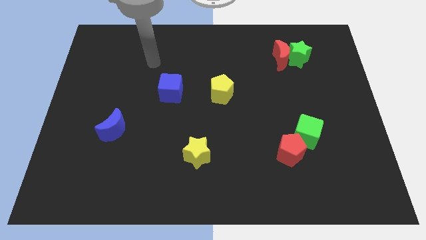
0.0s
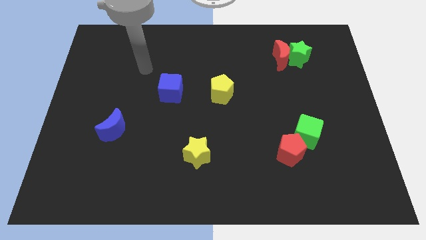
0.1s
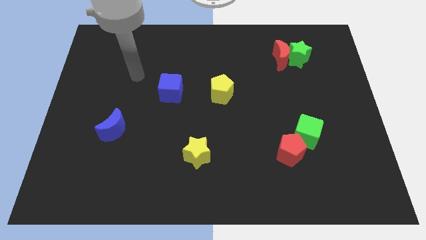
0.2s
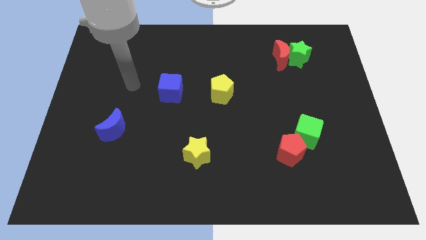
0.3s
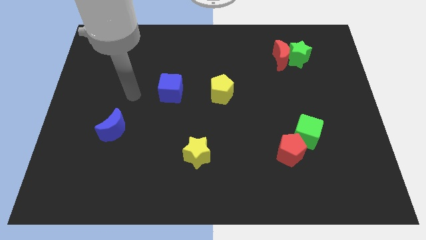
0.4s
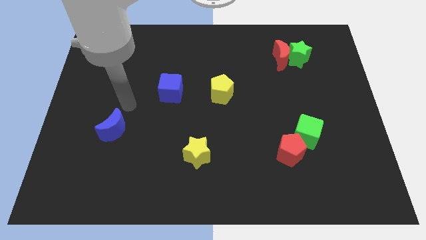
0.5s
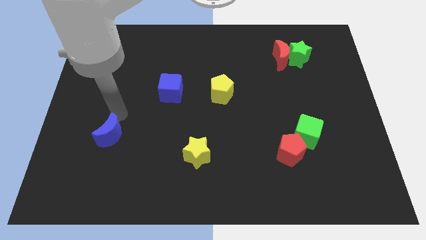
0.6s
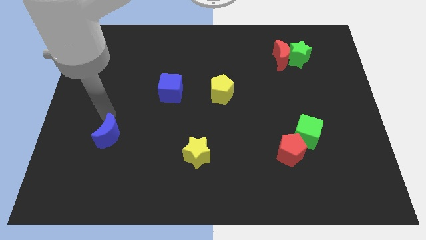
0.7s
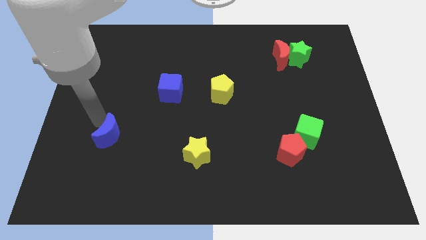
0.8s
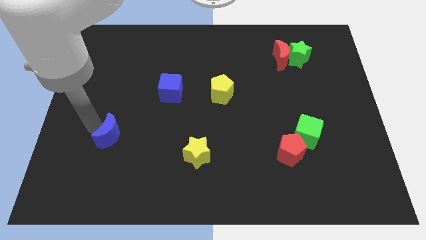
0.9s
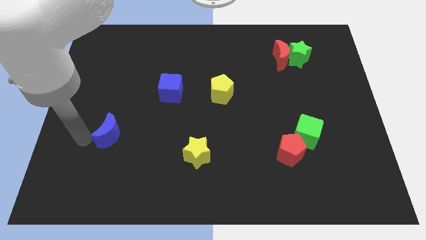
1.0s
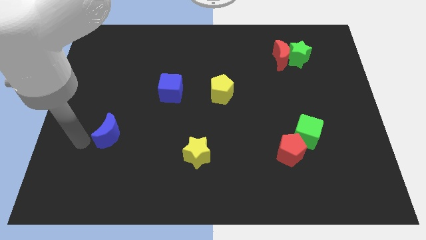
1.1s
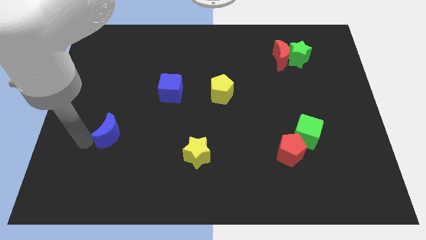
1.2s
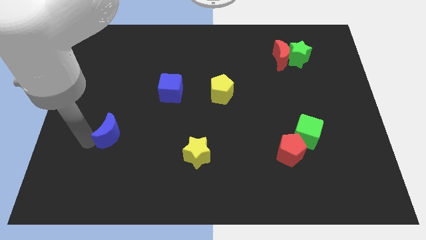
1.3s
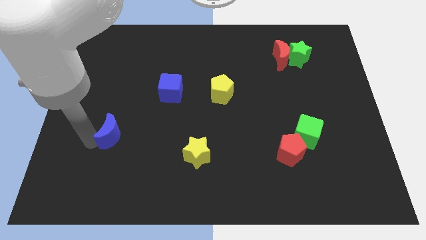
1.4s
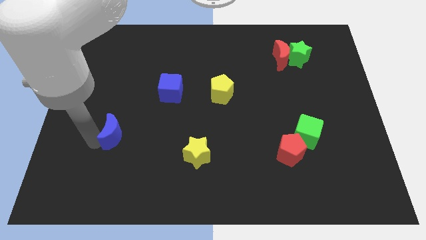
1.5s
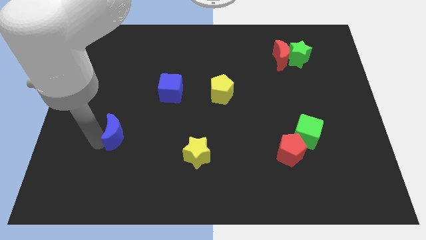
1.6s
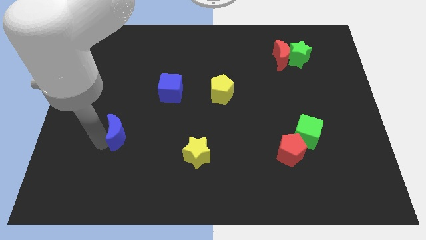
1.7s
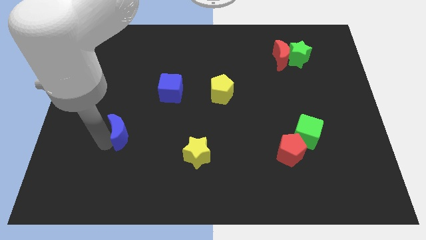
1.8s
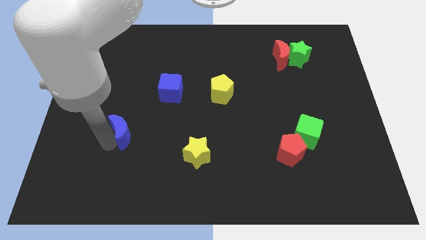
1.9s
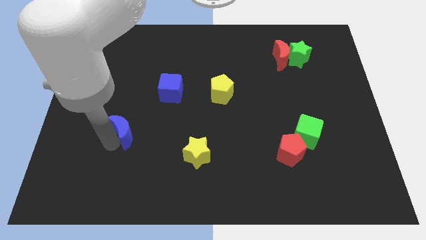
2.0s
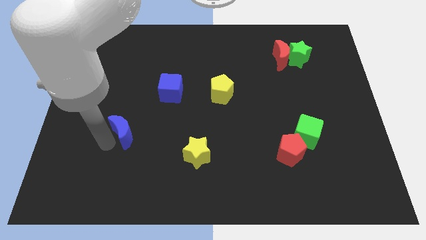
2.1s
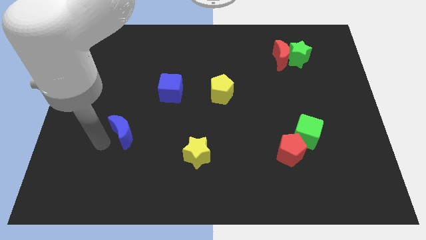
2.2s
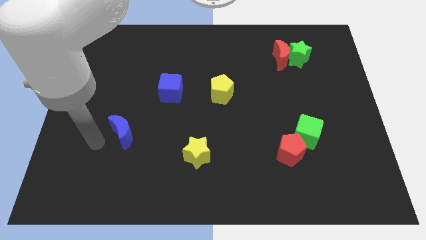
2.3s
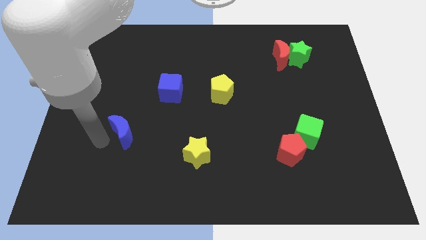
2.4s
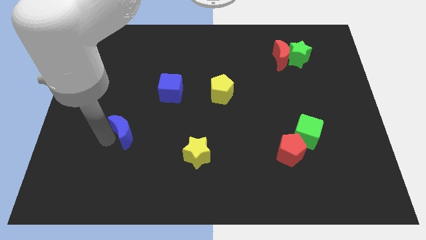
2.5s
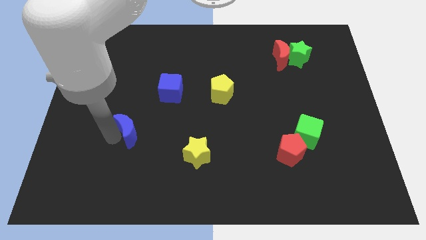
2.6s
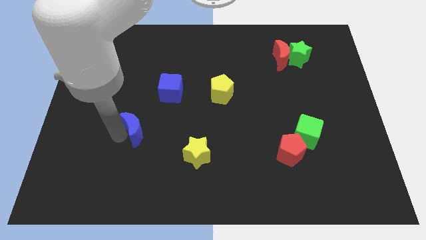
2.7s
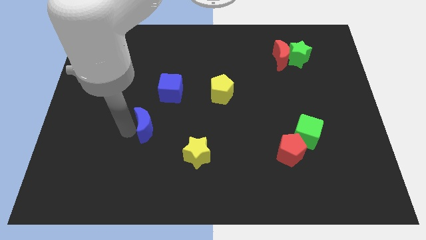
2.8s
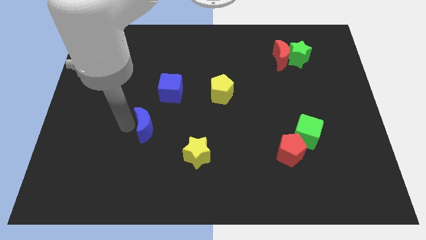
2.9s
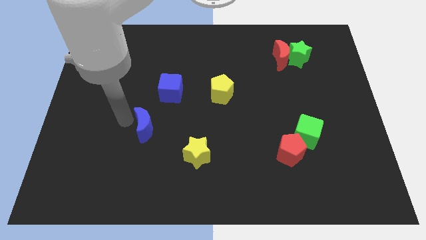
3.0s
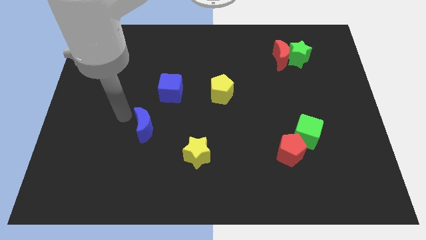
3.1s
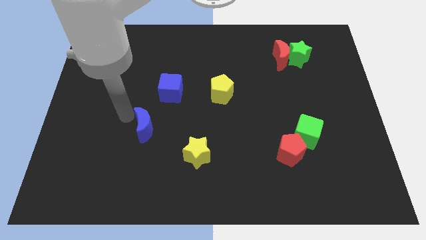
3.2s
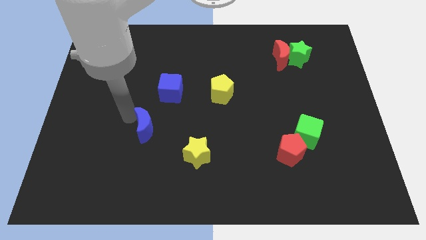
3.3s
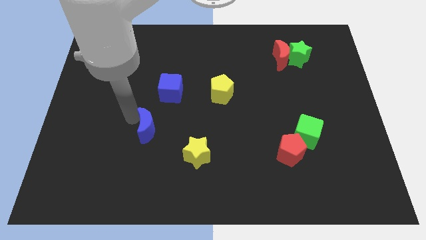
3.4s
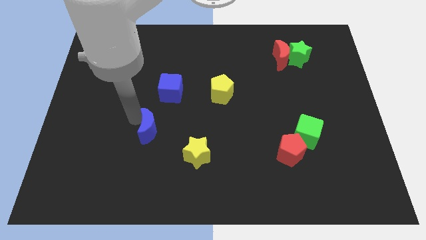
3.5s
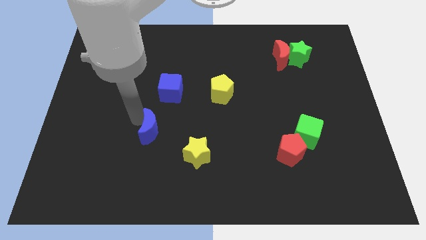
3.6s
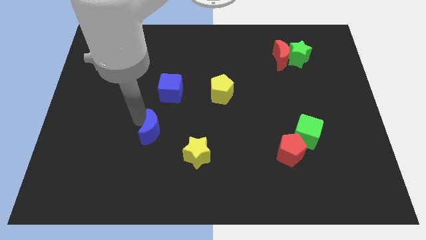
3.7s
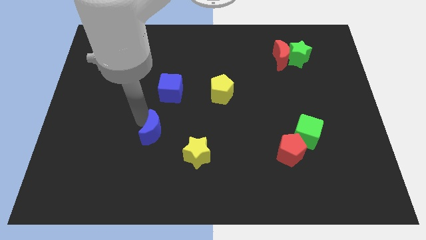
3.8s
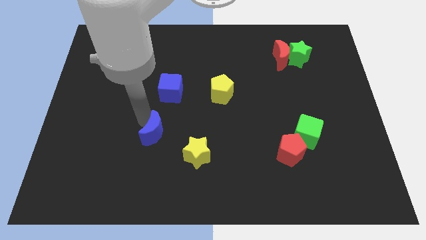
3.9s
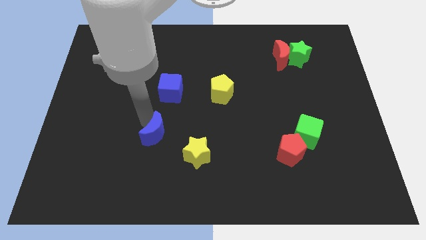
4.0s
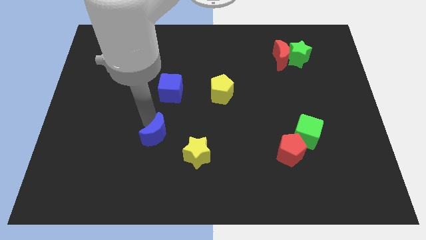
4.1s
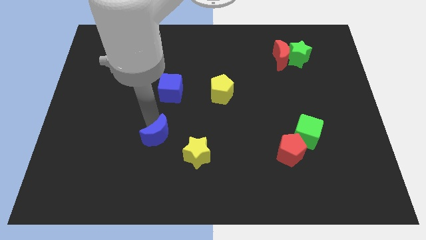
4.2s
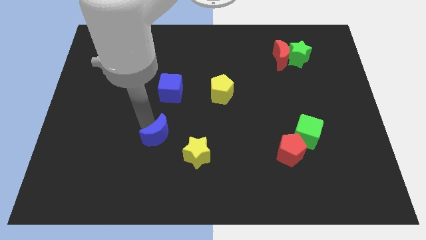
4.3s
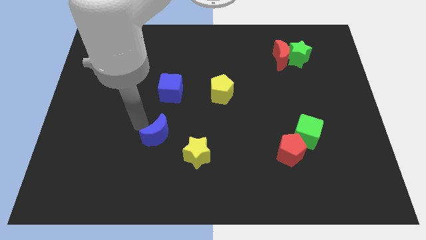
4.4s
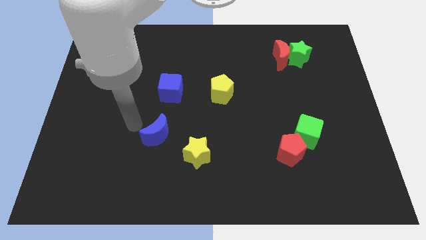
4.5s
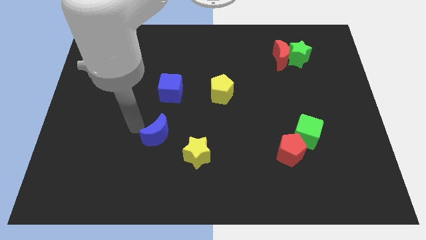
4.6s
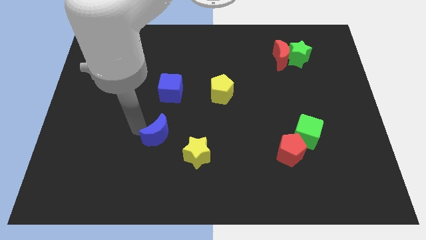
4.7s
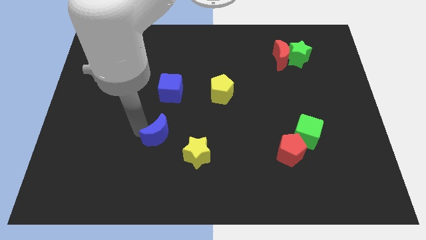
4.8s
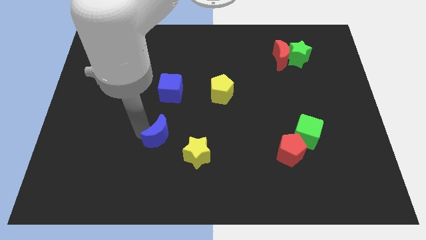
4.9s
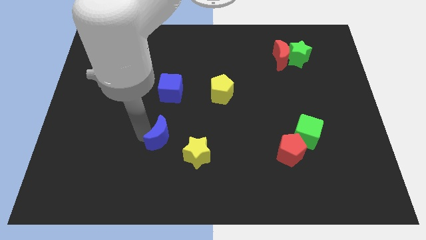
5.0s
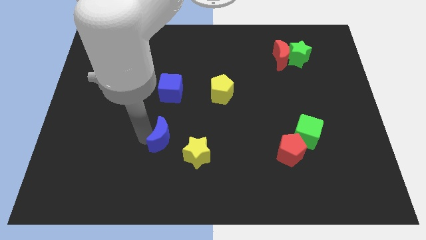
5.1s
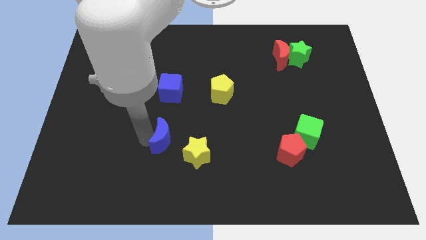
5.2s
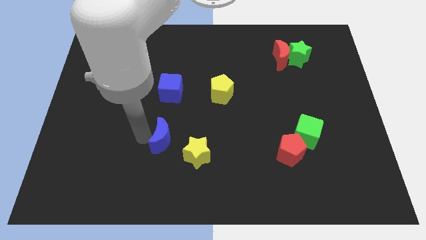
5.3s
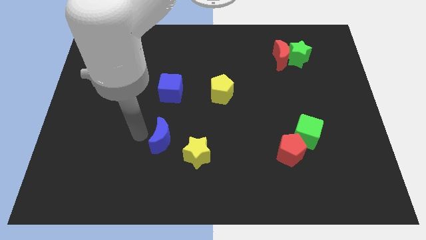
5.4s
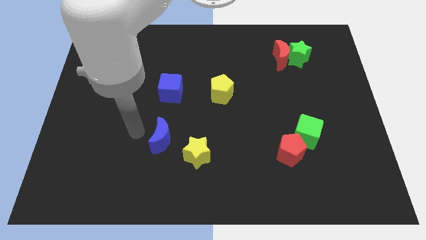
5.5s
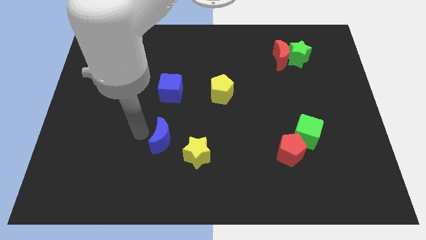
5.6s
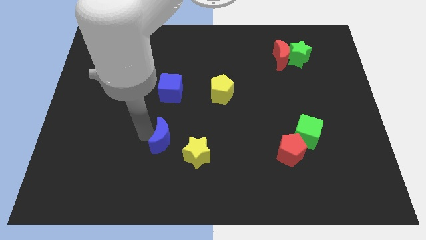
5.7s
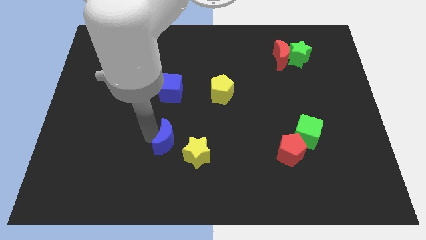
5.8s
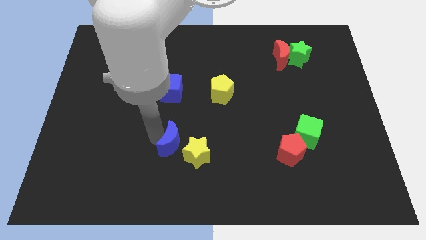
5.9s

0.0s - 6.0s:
slide the blue moon to the yellow star

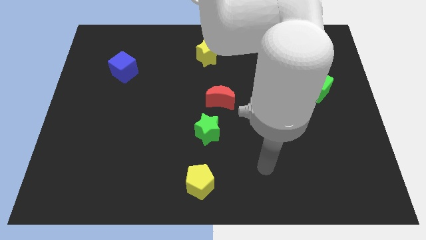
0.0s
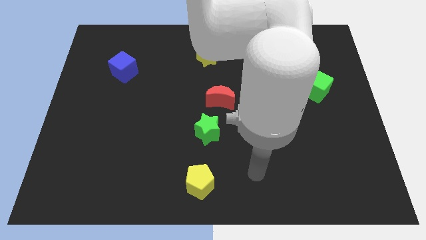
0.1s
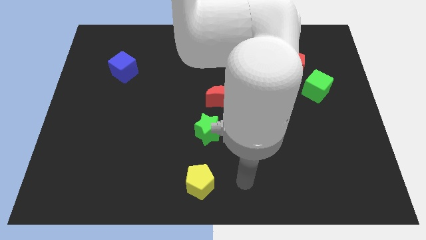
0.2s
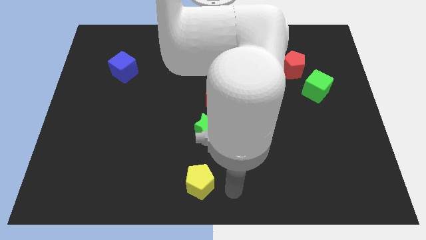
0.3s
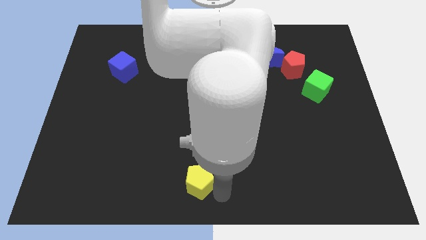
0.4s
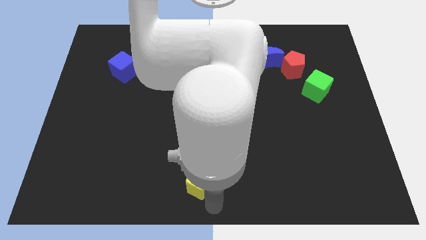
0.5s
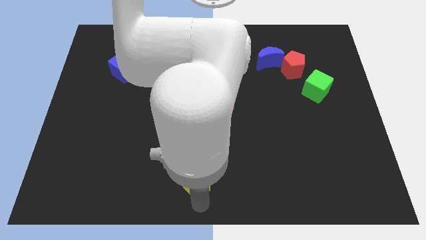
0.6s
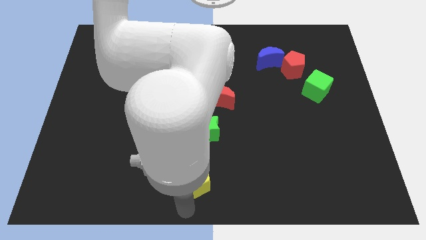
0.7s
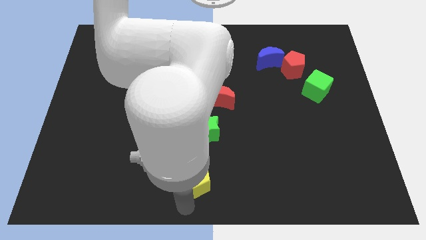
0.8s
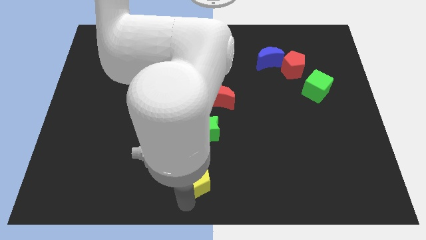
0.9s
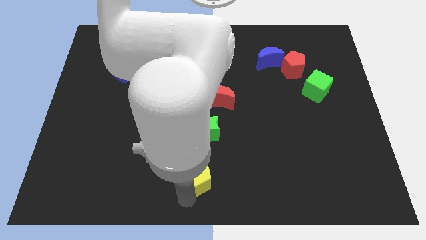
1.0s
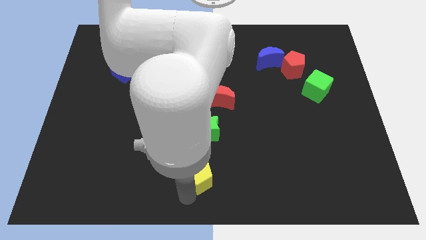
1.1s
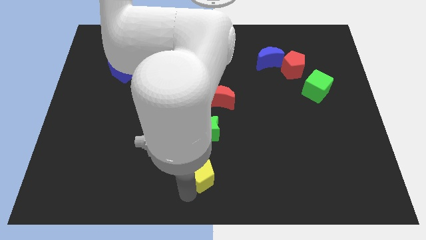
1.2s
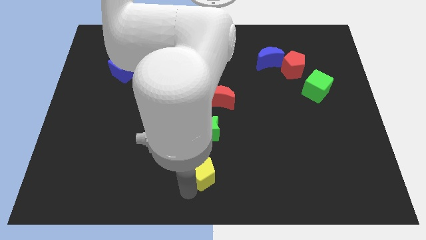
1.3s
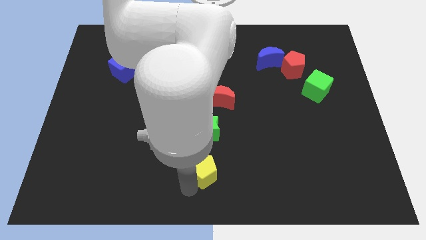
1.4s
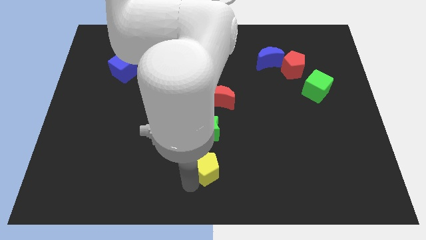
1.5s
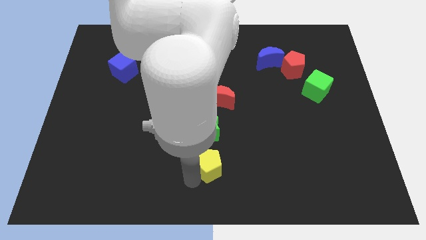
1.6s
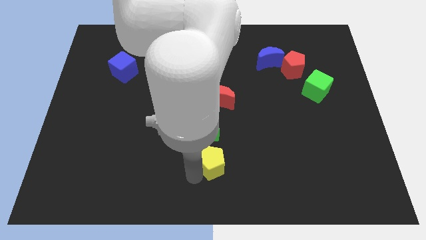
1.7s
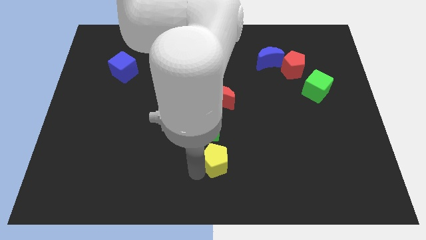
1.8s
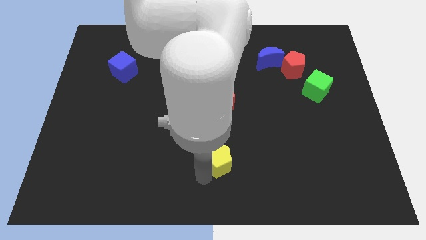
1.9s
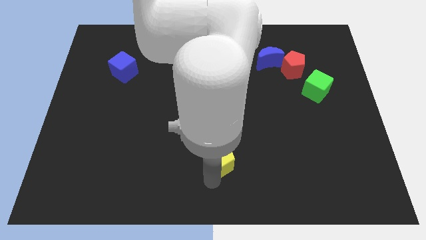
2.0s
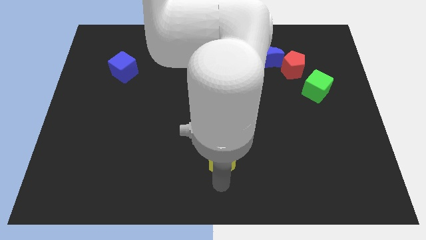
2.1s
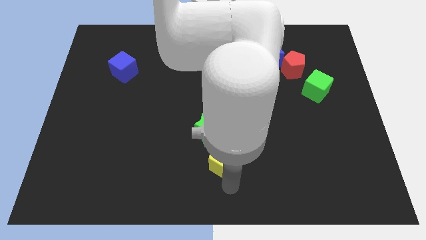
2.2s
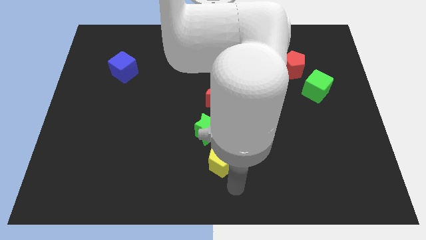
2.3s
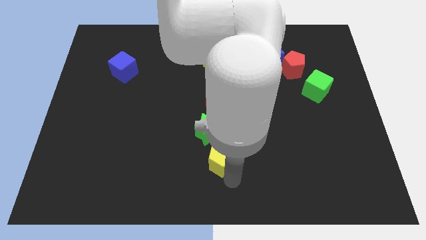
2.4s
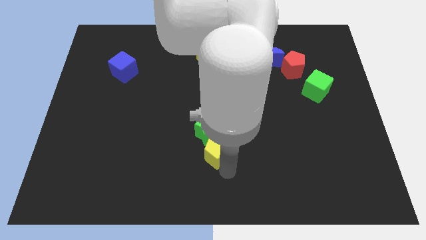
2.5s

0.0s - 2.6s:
move the yellow pentagon to the green star
